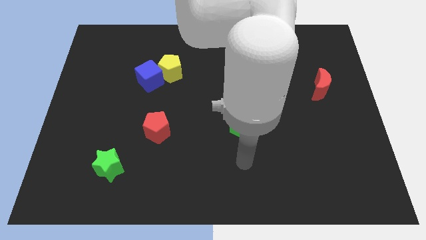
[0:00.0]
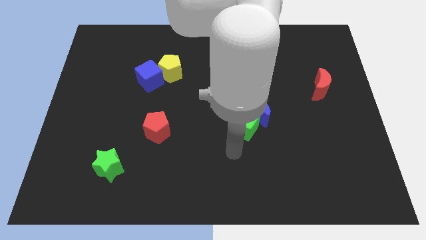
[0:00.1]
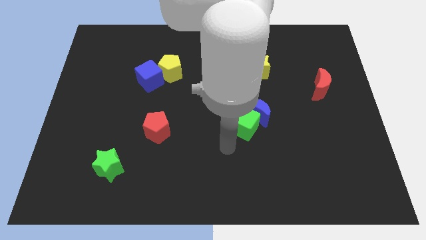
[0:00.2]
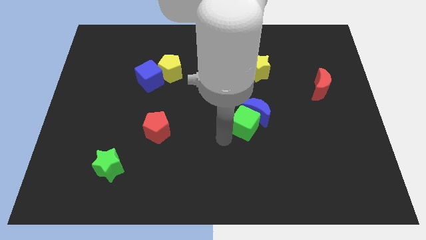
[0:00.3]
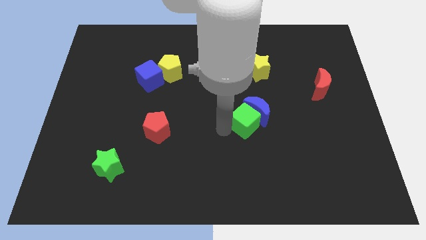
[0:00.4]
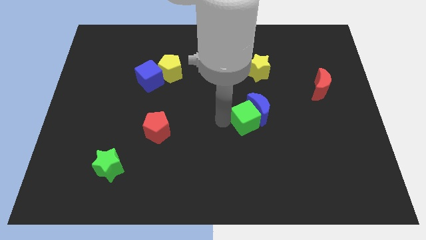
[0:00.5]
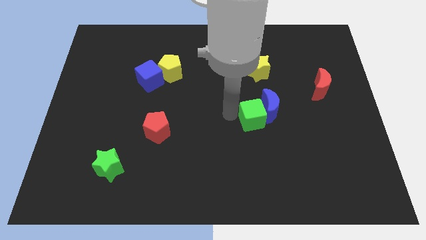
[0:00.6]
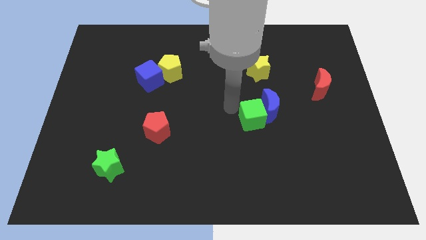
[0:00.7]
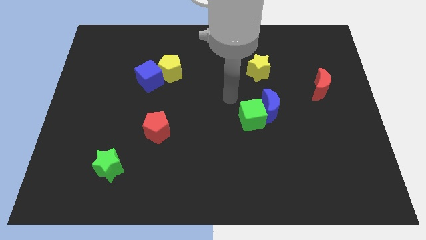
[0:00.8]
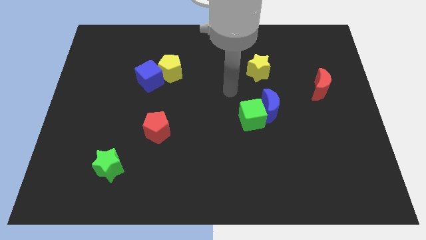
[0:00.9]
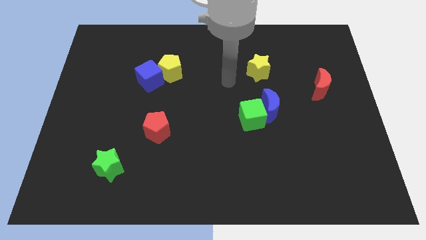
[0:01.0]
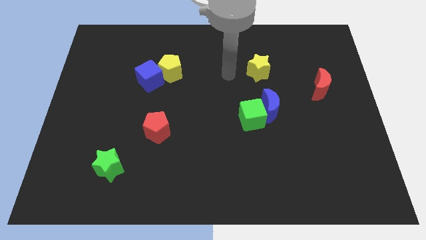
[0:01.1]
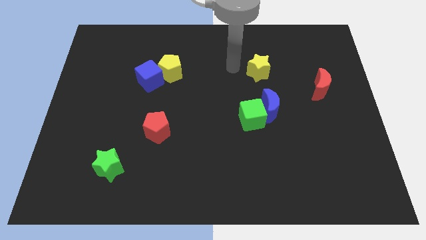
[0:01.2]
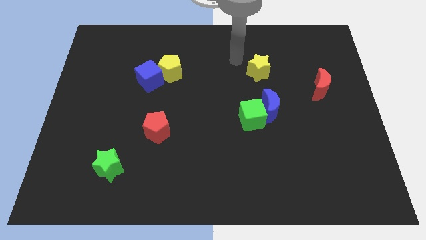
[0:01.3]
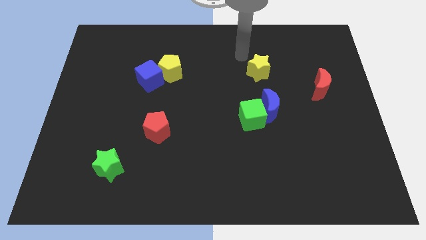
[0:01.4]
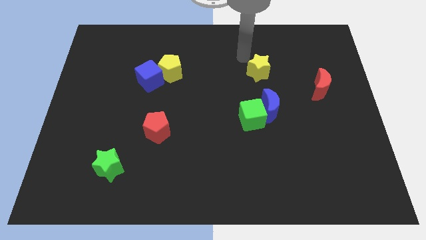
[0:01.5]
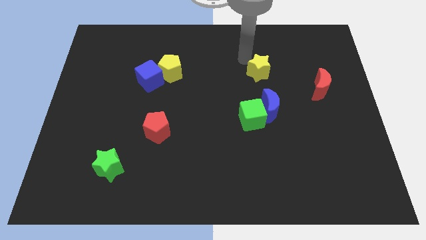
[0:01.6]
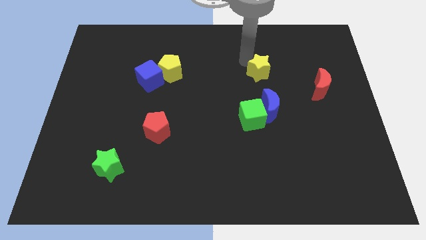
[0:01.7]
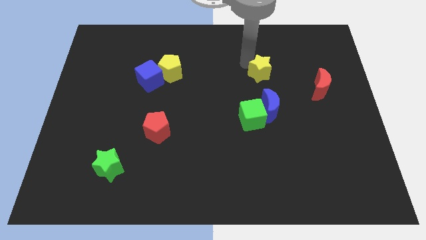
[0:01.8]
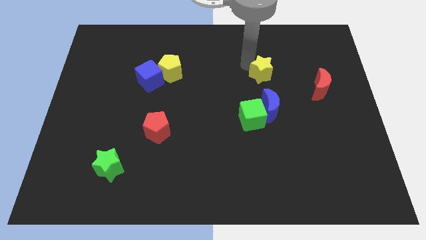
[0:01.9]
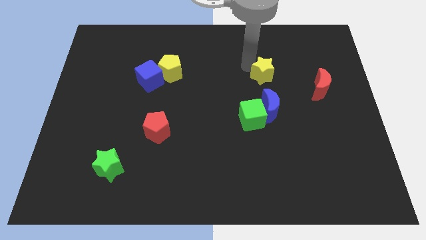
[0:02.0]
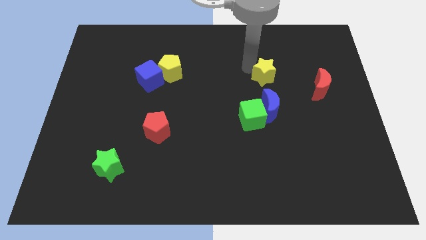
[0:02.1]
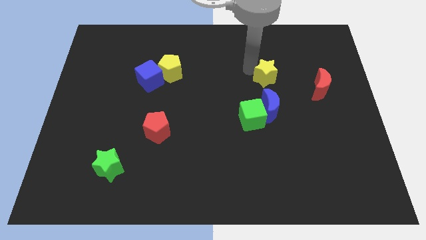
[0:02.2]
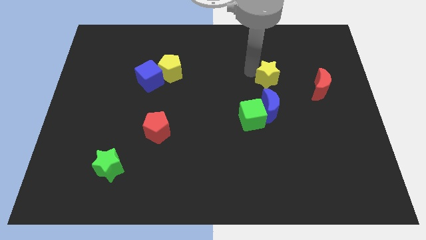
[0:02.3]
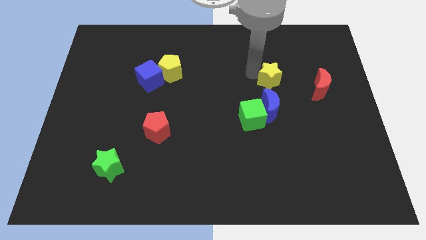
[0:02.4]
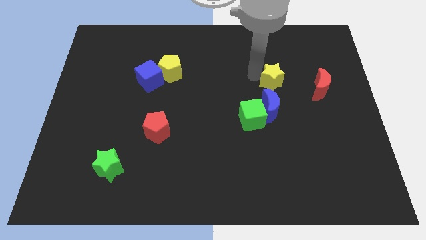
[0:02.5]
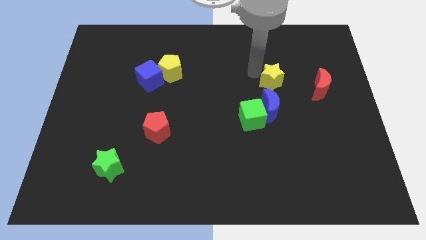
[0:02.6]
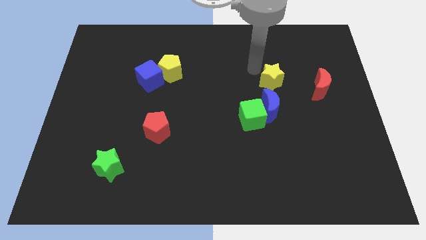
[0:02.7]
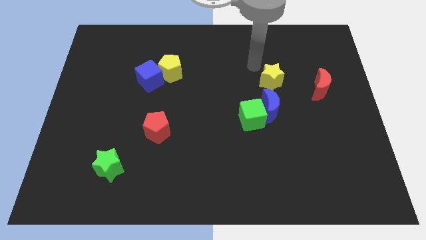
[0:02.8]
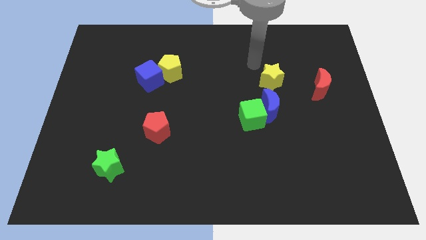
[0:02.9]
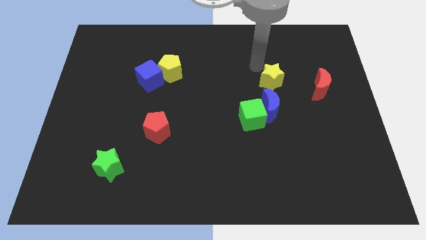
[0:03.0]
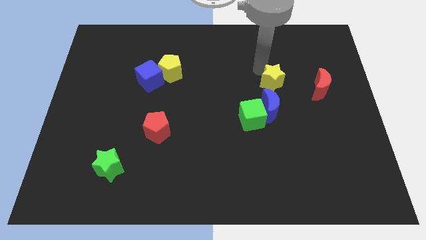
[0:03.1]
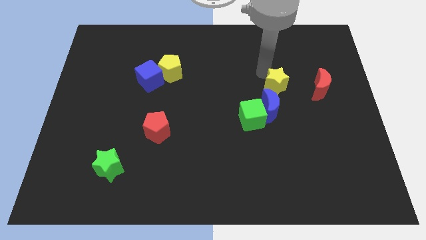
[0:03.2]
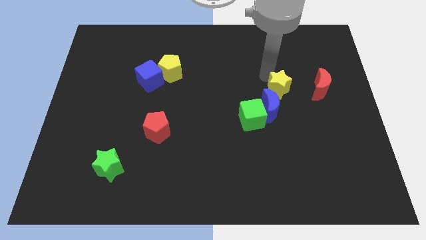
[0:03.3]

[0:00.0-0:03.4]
slightly slide the yellow star down and to the right

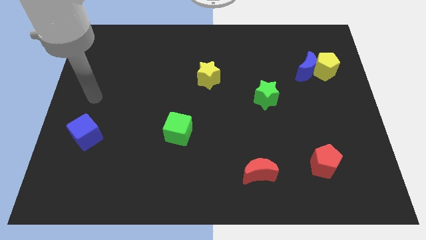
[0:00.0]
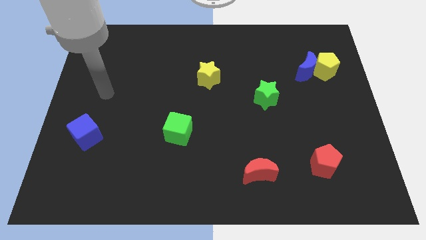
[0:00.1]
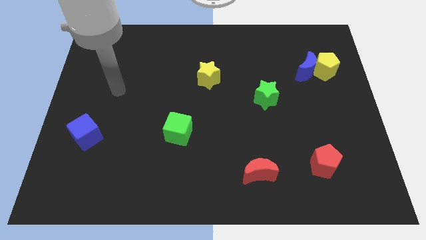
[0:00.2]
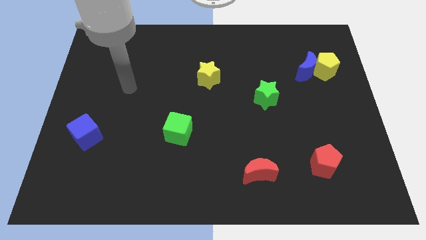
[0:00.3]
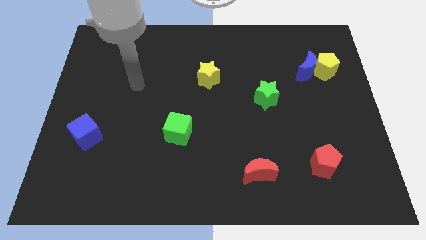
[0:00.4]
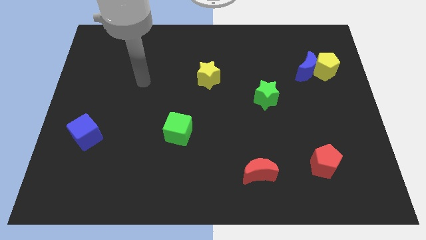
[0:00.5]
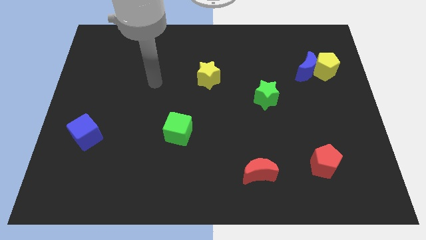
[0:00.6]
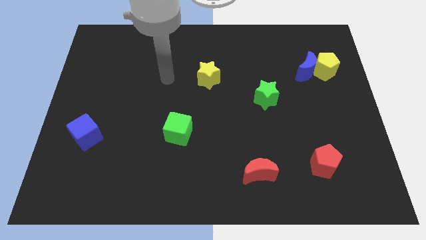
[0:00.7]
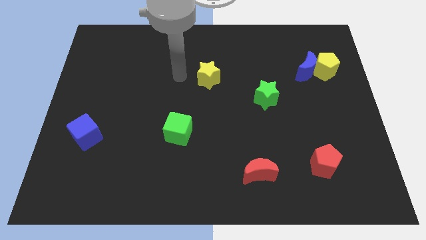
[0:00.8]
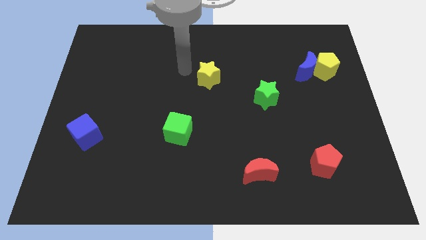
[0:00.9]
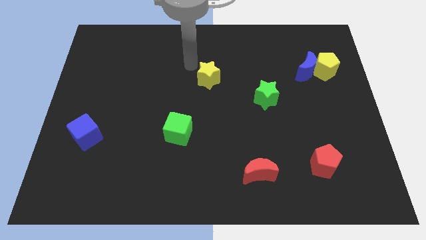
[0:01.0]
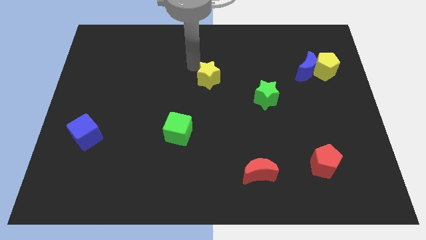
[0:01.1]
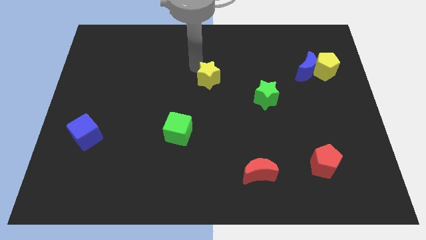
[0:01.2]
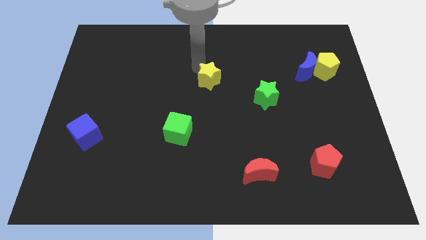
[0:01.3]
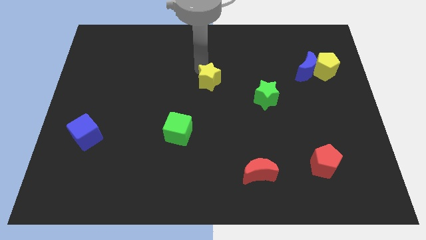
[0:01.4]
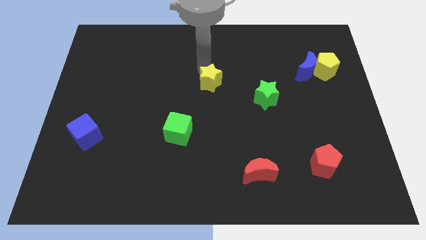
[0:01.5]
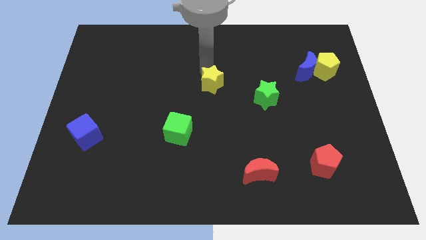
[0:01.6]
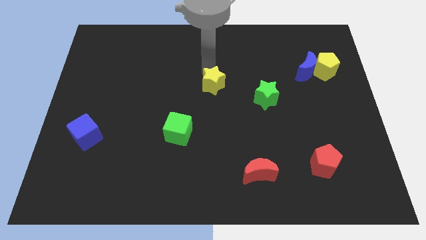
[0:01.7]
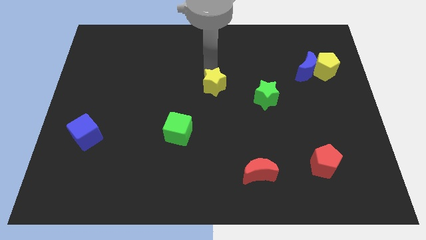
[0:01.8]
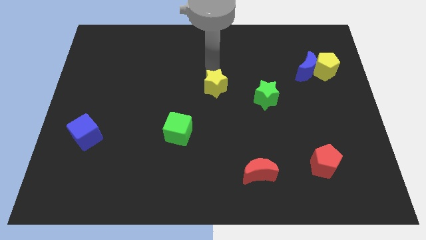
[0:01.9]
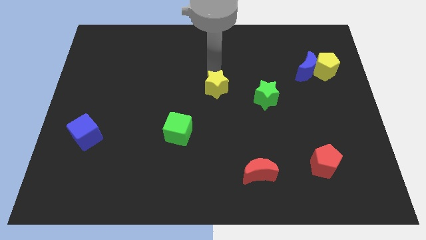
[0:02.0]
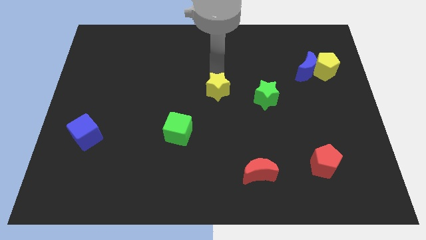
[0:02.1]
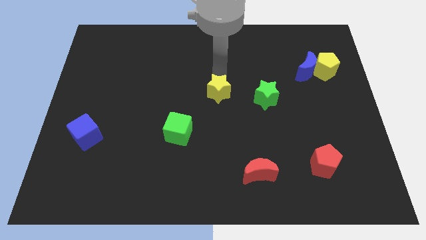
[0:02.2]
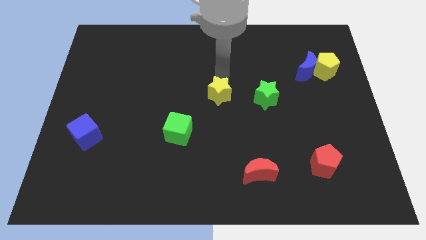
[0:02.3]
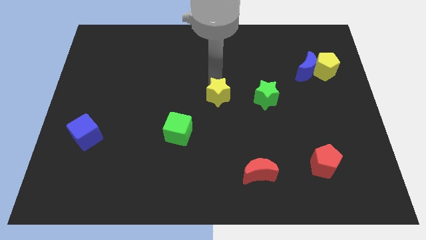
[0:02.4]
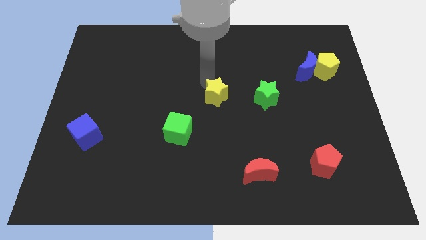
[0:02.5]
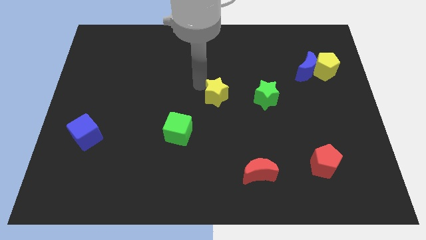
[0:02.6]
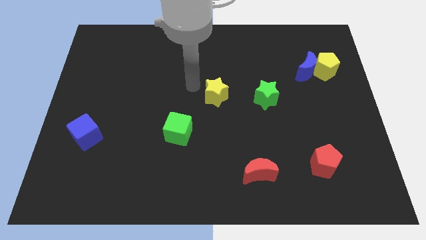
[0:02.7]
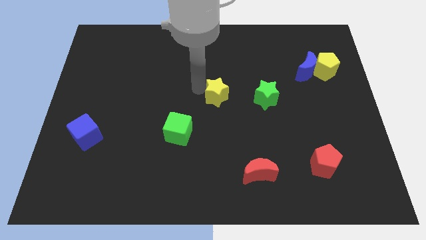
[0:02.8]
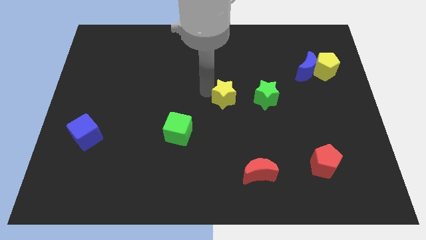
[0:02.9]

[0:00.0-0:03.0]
slightly push the yellow star downwards and right

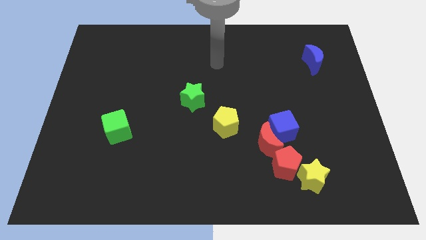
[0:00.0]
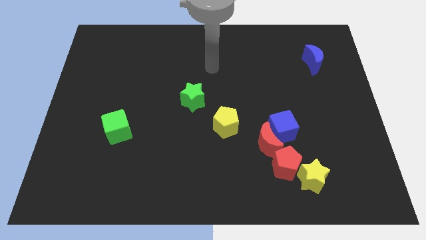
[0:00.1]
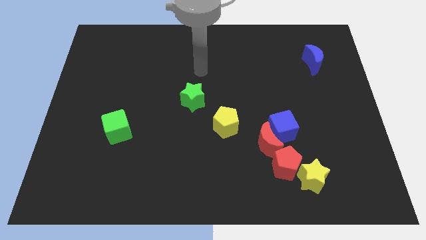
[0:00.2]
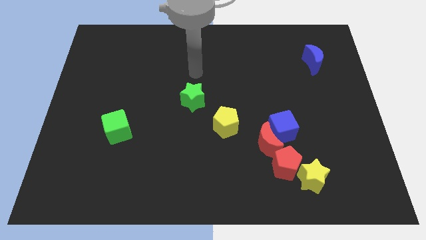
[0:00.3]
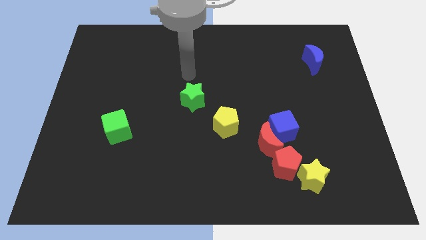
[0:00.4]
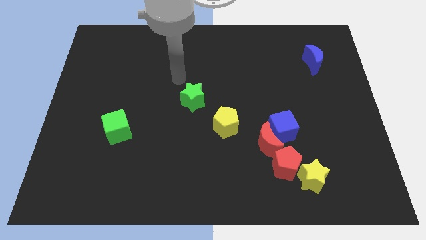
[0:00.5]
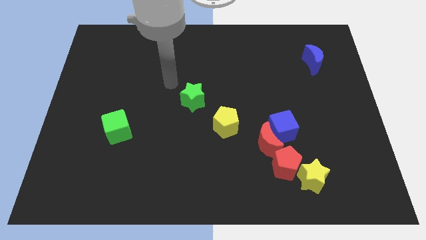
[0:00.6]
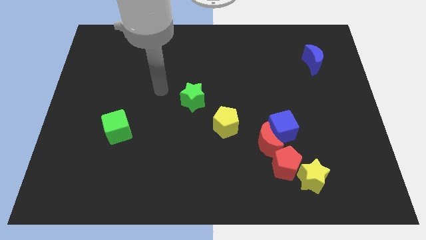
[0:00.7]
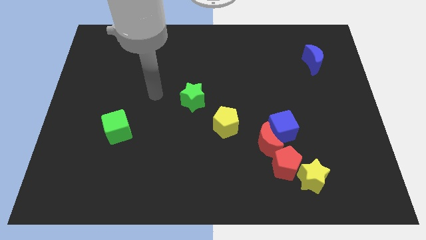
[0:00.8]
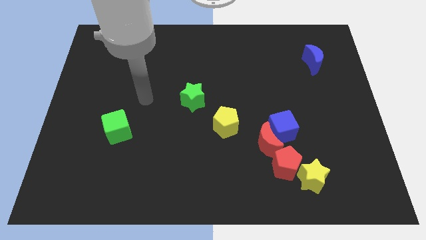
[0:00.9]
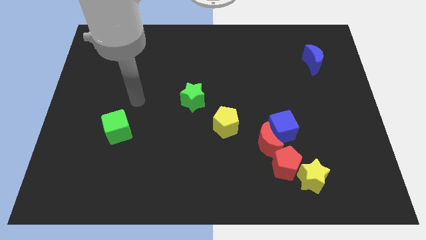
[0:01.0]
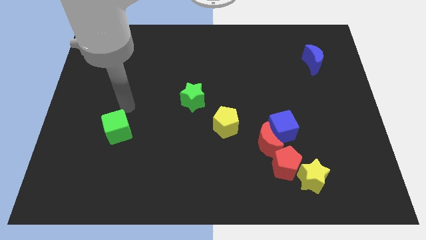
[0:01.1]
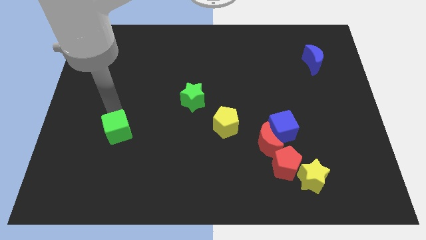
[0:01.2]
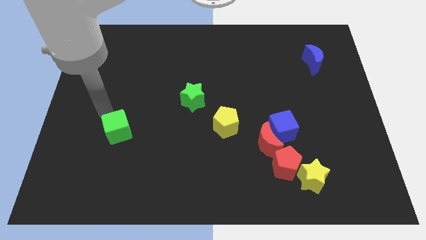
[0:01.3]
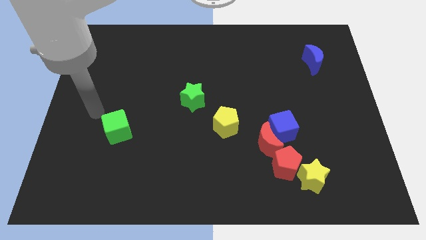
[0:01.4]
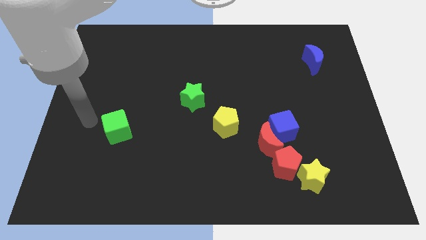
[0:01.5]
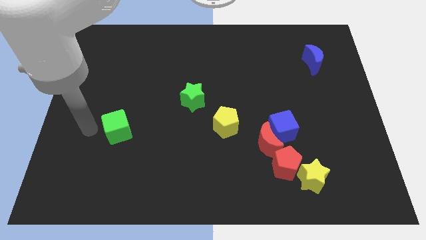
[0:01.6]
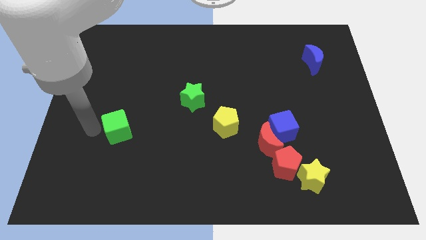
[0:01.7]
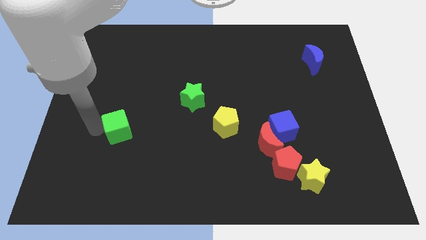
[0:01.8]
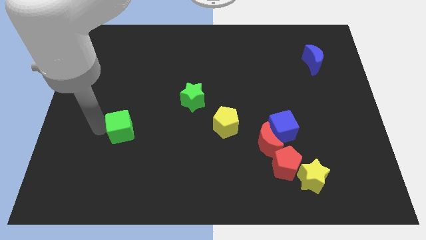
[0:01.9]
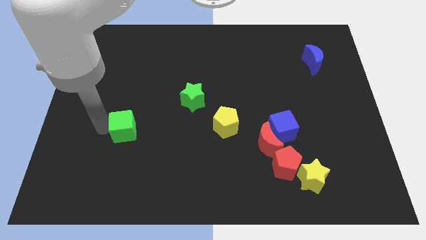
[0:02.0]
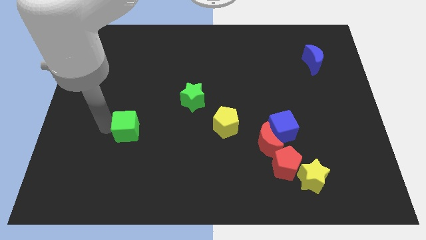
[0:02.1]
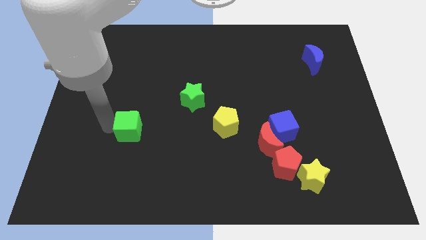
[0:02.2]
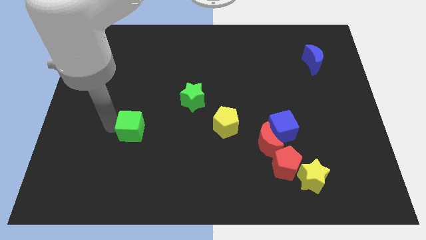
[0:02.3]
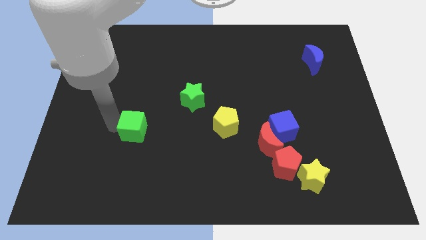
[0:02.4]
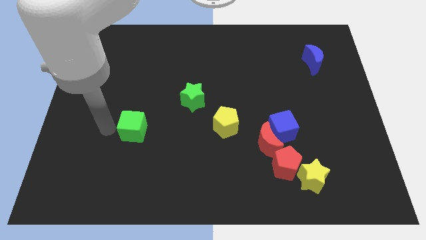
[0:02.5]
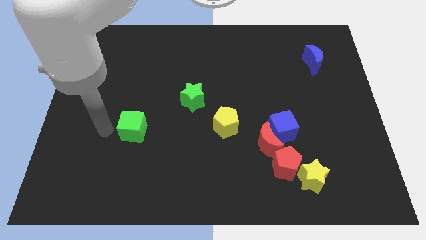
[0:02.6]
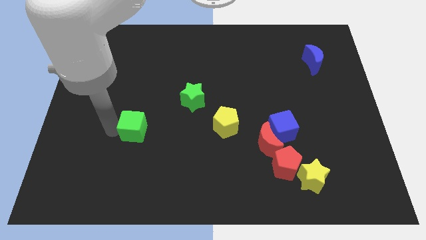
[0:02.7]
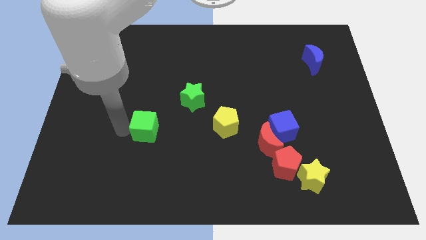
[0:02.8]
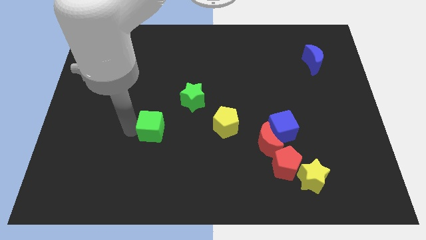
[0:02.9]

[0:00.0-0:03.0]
slide the green cube right somewhat
